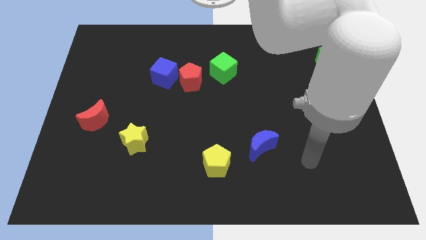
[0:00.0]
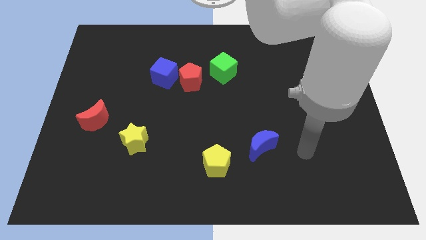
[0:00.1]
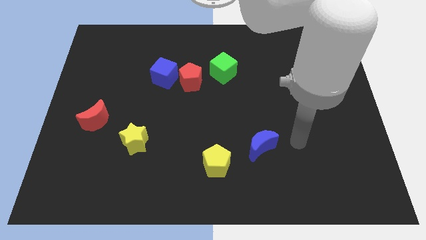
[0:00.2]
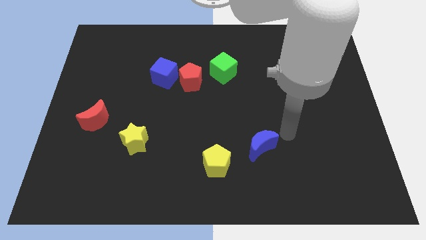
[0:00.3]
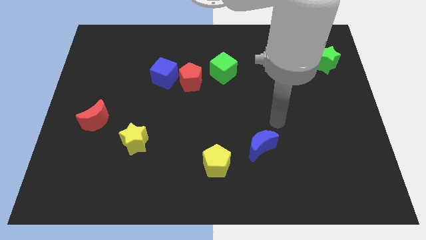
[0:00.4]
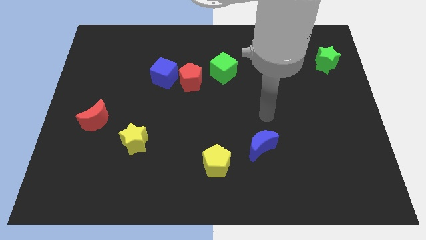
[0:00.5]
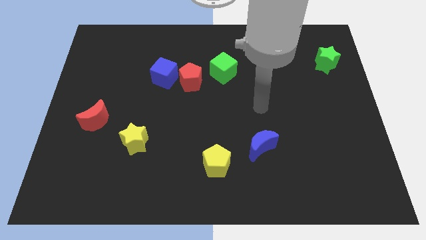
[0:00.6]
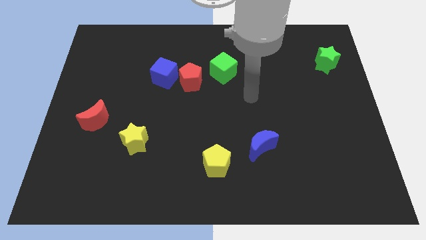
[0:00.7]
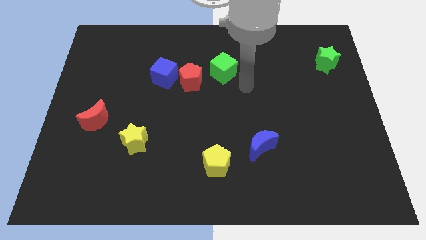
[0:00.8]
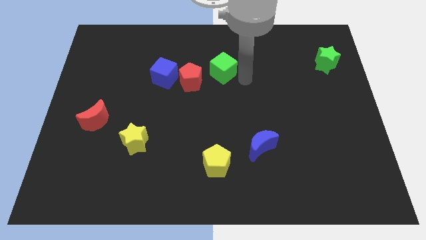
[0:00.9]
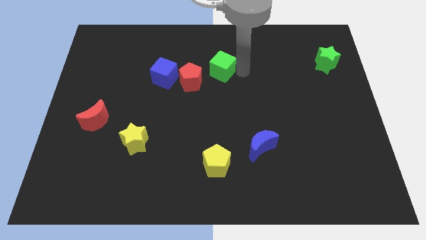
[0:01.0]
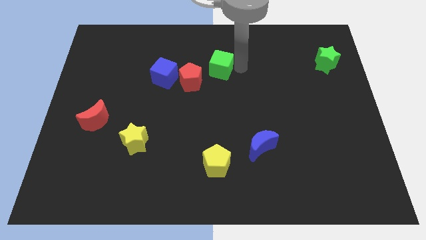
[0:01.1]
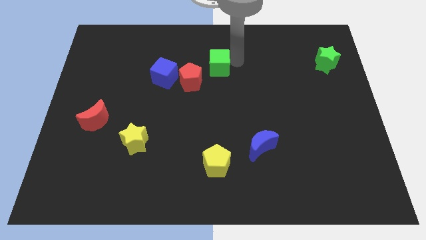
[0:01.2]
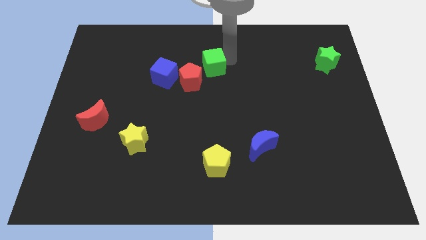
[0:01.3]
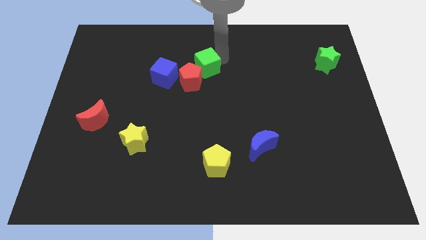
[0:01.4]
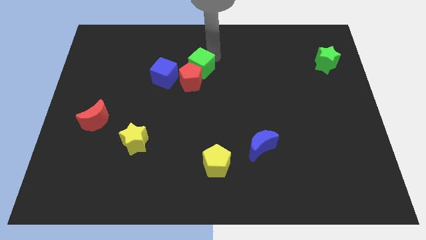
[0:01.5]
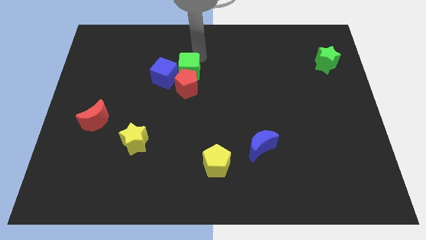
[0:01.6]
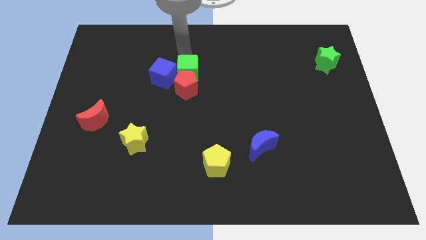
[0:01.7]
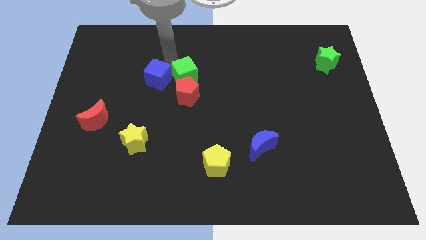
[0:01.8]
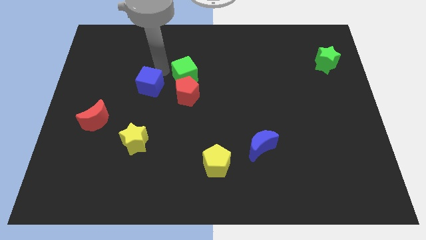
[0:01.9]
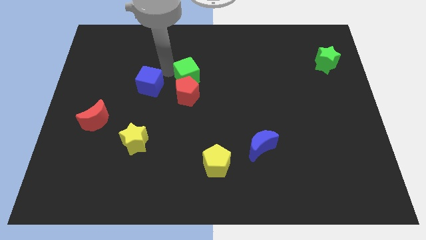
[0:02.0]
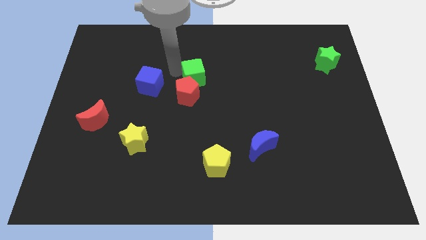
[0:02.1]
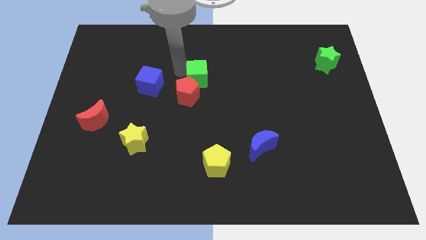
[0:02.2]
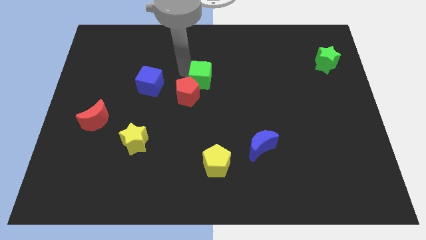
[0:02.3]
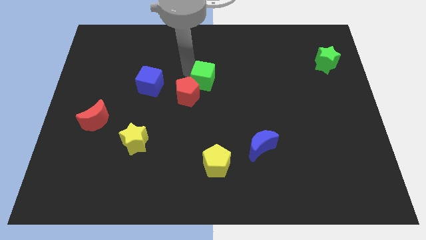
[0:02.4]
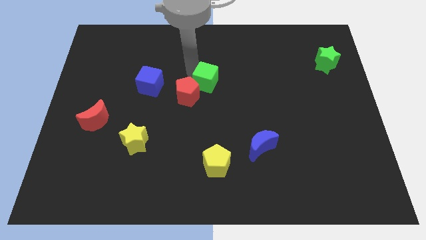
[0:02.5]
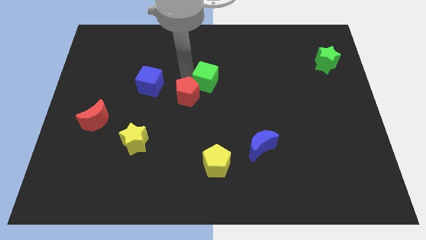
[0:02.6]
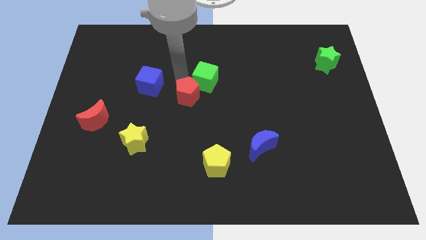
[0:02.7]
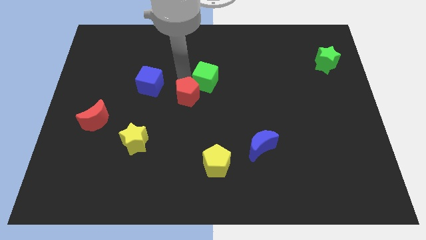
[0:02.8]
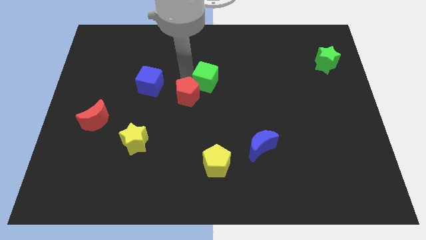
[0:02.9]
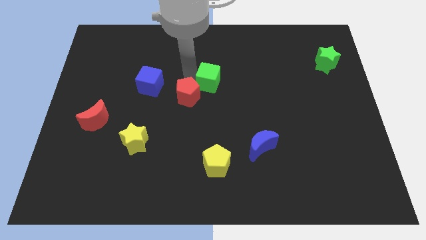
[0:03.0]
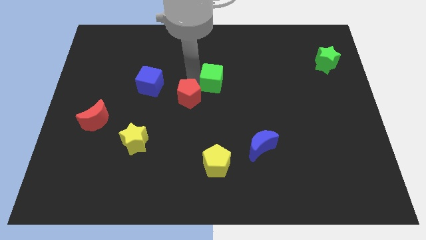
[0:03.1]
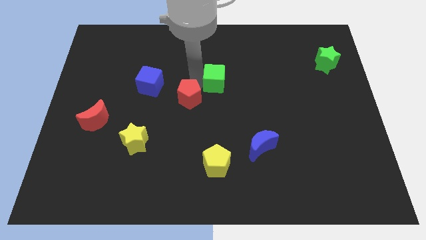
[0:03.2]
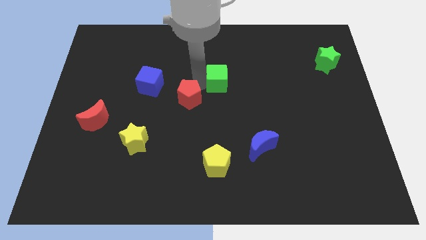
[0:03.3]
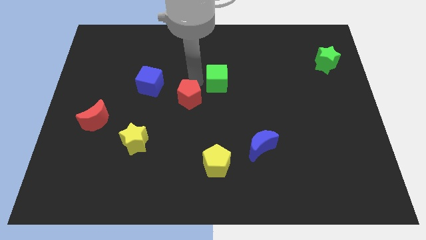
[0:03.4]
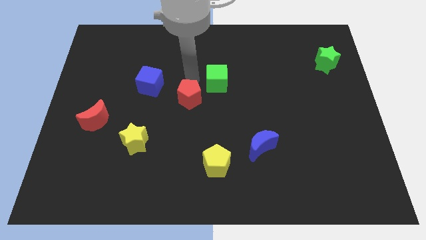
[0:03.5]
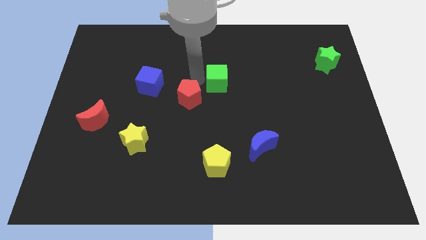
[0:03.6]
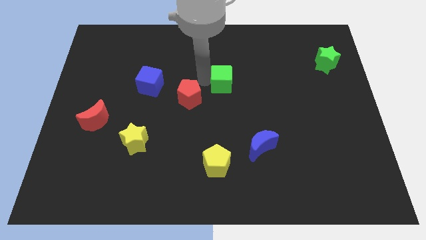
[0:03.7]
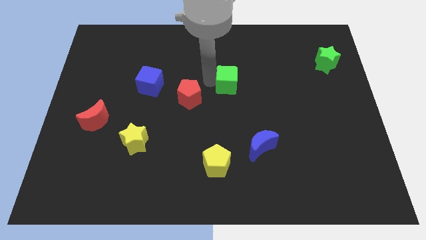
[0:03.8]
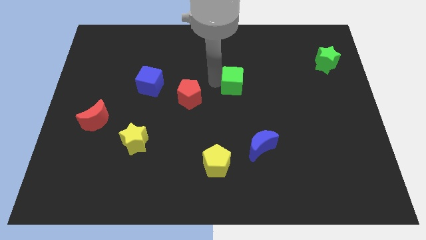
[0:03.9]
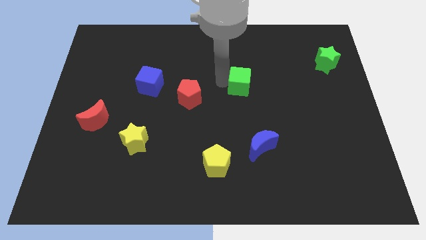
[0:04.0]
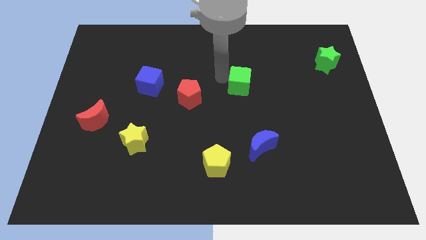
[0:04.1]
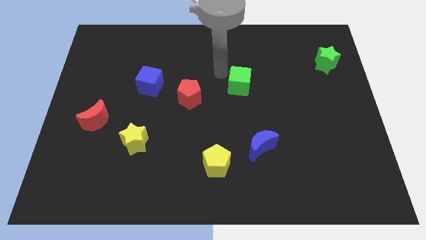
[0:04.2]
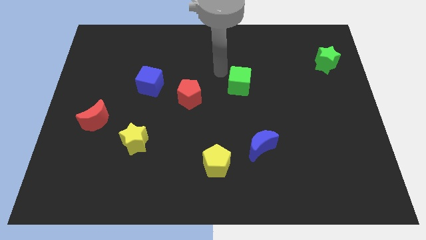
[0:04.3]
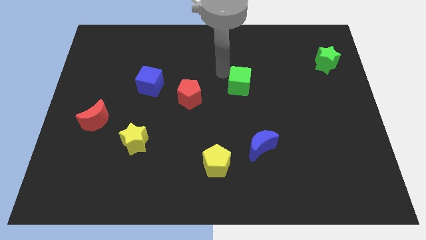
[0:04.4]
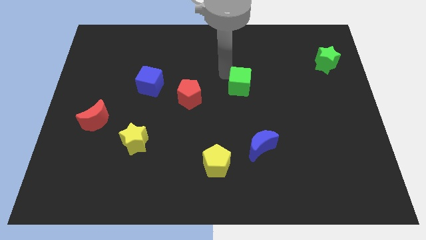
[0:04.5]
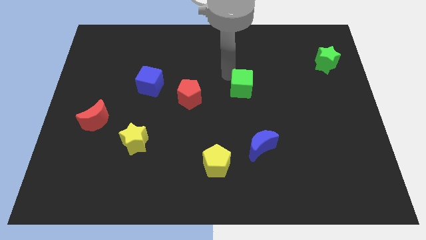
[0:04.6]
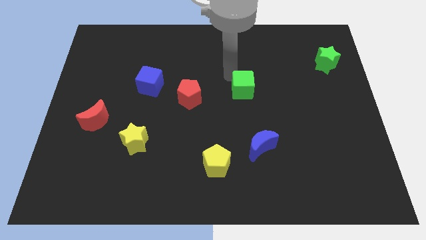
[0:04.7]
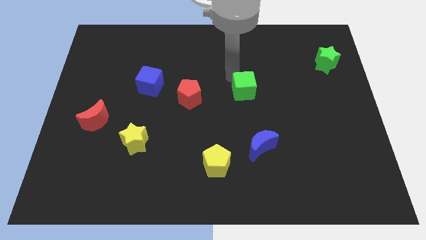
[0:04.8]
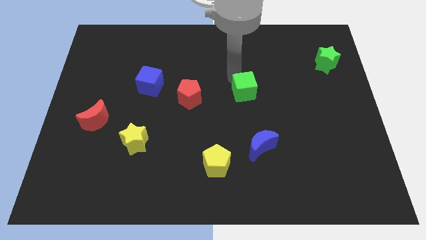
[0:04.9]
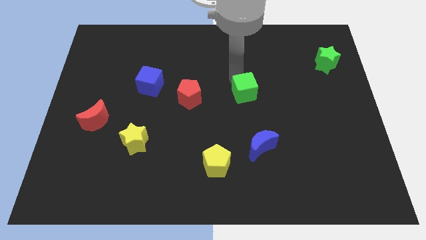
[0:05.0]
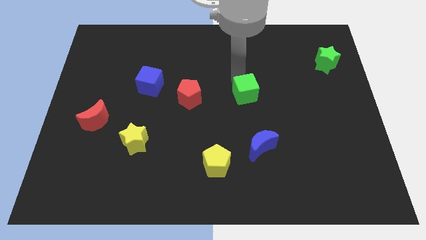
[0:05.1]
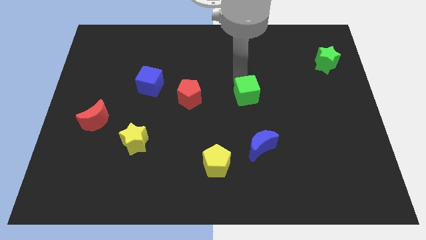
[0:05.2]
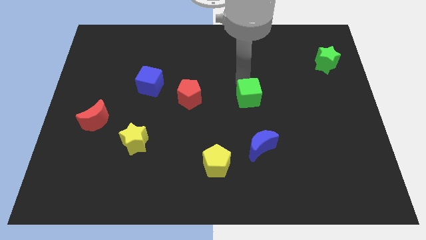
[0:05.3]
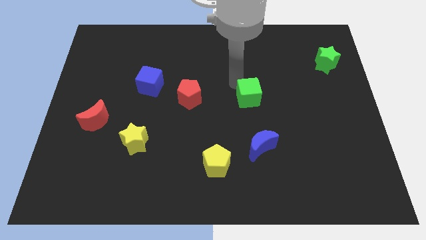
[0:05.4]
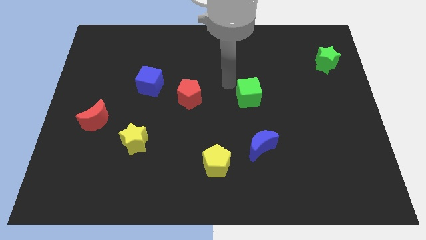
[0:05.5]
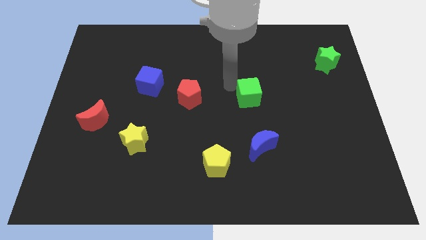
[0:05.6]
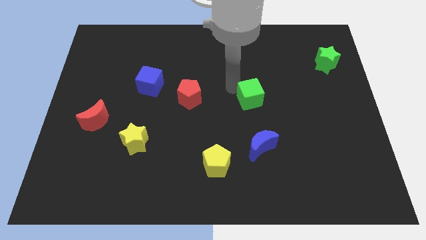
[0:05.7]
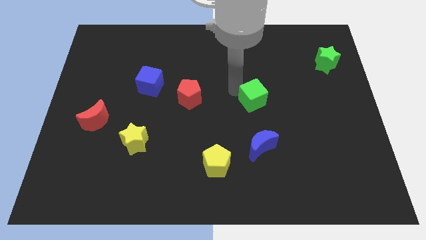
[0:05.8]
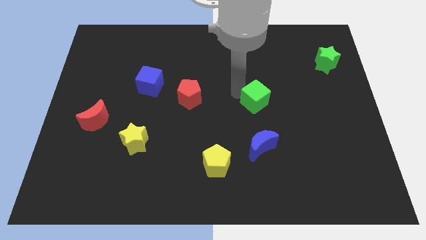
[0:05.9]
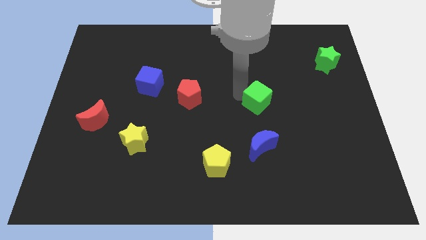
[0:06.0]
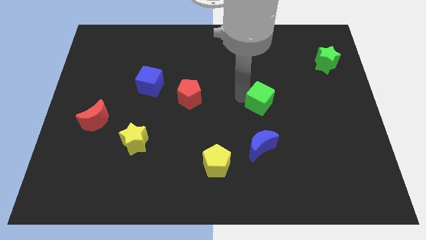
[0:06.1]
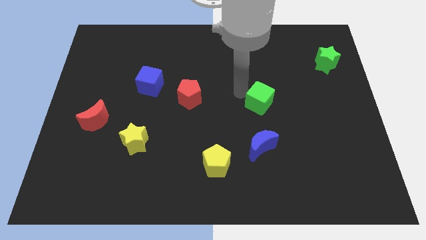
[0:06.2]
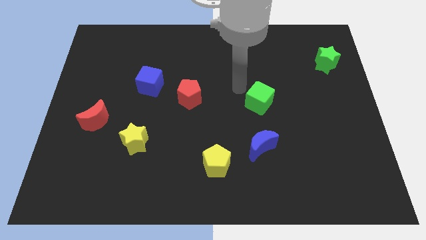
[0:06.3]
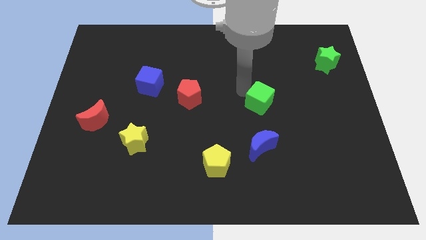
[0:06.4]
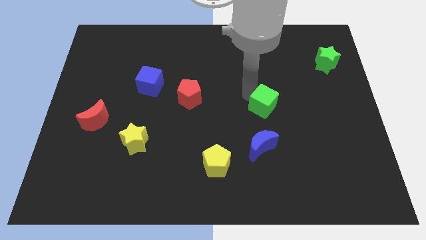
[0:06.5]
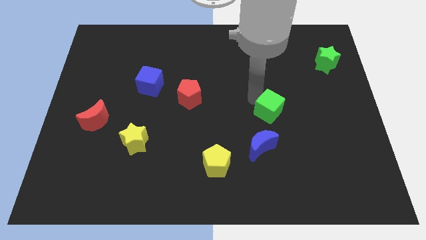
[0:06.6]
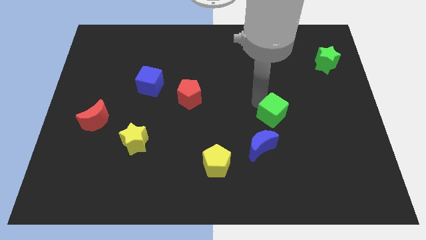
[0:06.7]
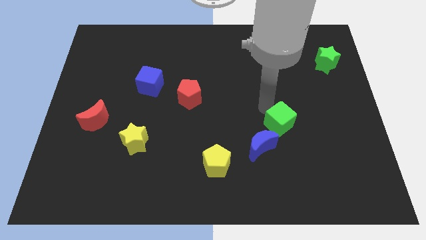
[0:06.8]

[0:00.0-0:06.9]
slide the green cube diagonally down and right

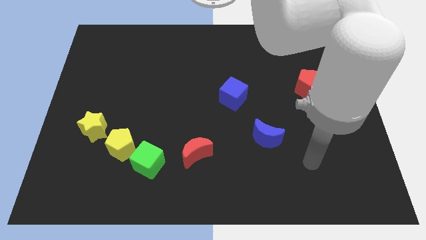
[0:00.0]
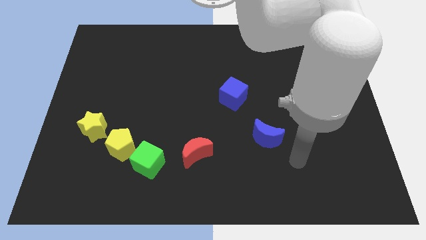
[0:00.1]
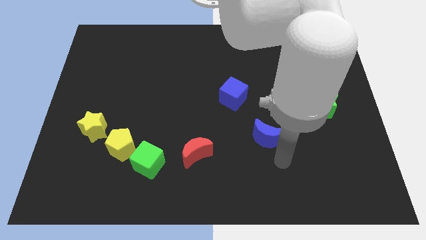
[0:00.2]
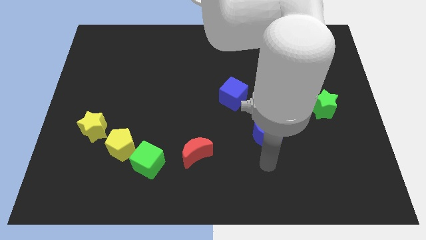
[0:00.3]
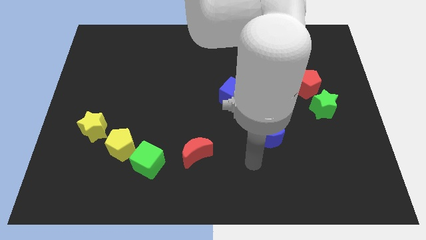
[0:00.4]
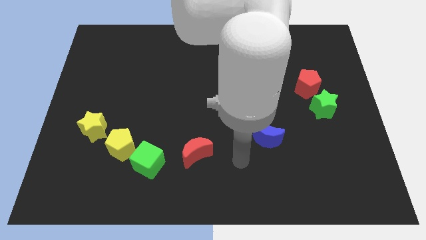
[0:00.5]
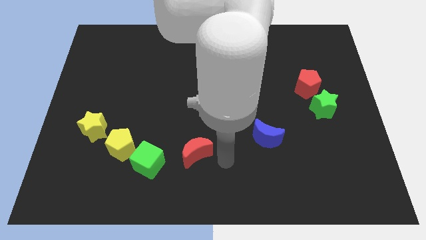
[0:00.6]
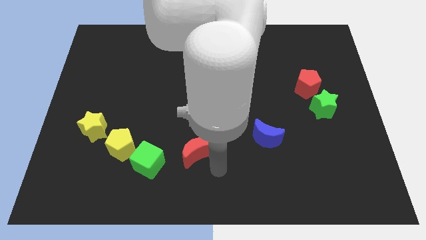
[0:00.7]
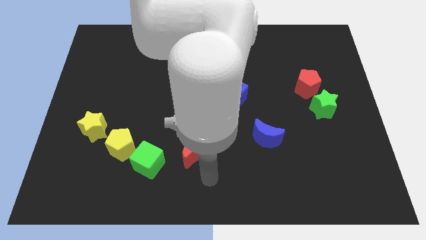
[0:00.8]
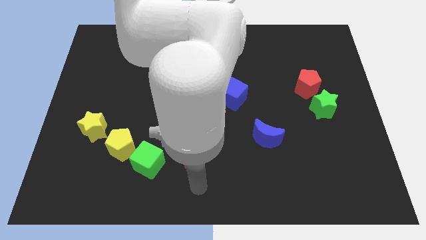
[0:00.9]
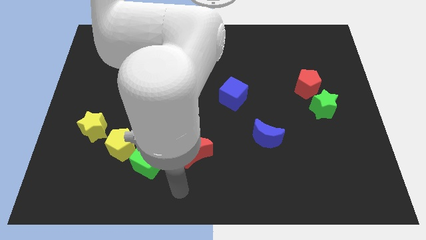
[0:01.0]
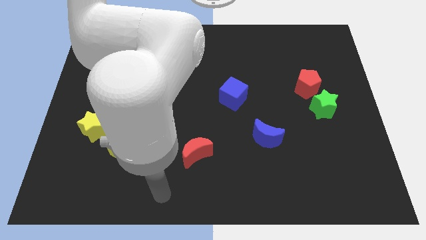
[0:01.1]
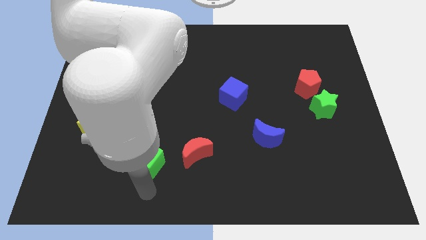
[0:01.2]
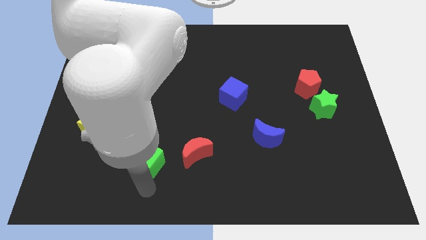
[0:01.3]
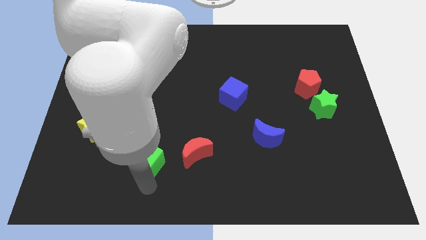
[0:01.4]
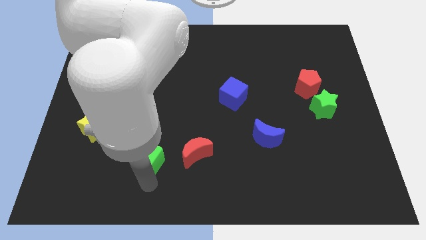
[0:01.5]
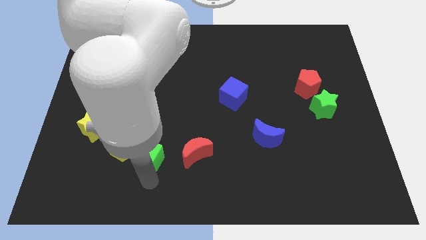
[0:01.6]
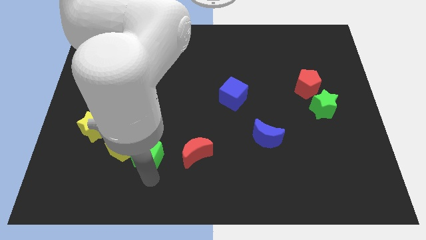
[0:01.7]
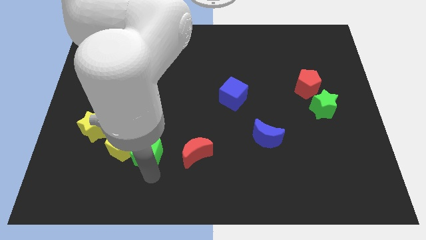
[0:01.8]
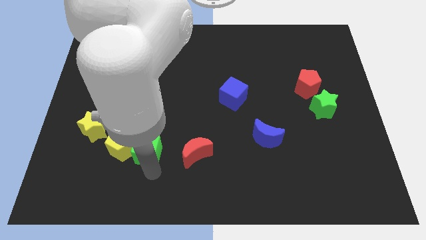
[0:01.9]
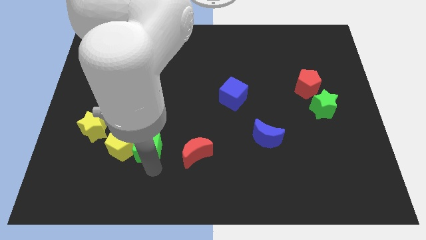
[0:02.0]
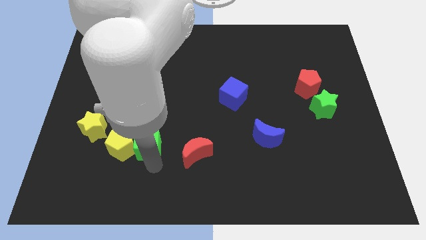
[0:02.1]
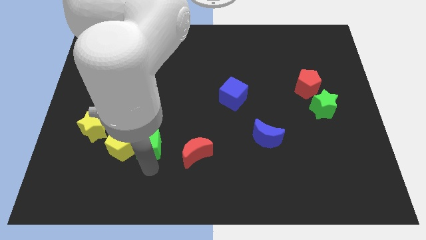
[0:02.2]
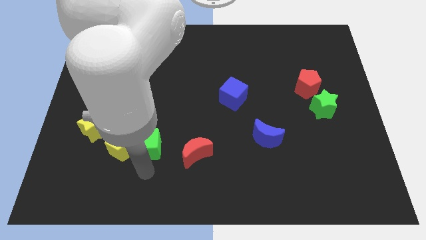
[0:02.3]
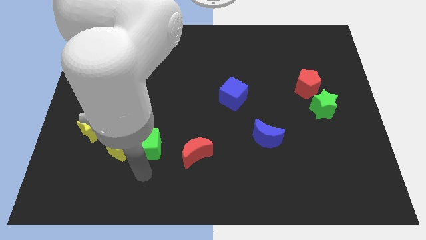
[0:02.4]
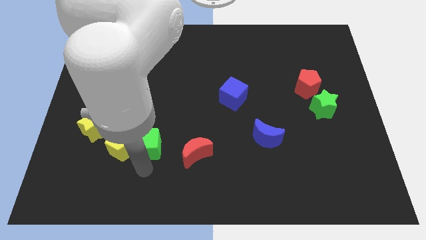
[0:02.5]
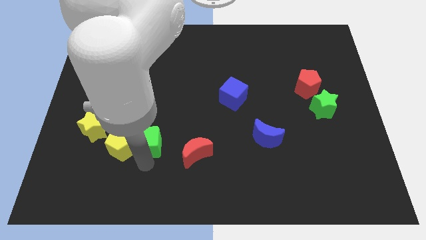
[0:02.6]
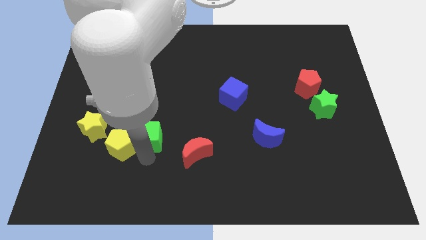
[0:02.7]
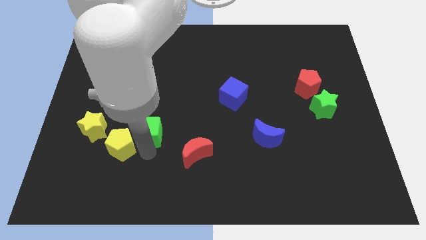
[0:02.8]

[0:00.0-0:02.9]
slightly slide the green cube upwards
